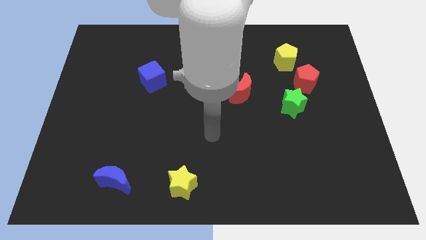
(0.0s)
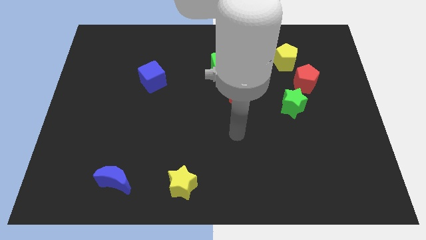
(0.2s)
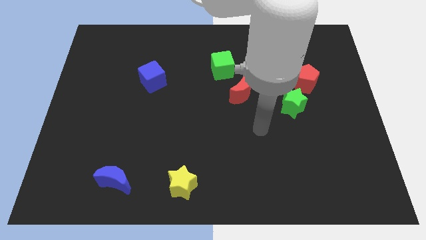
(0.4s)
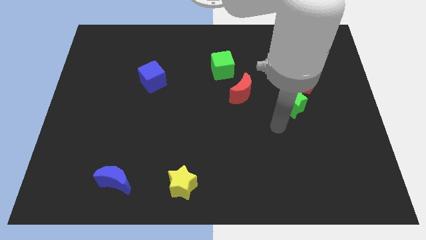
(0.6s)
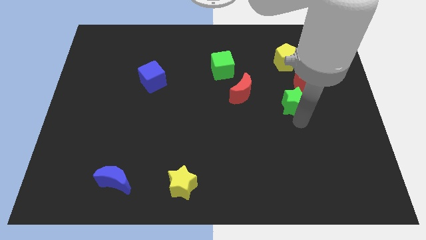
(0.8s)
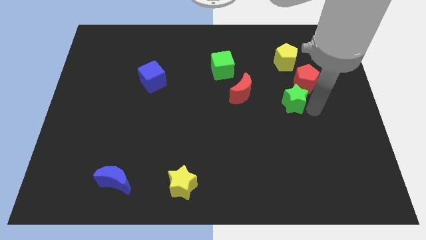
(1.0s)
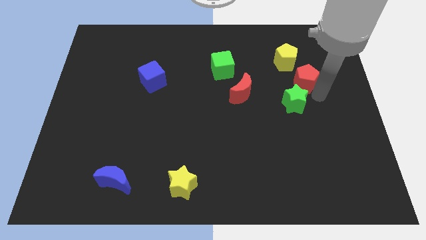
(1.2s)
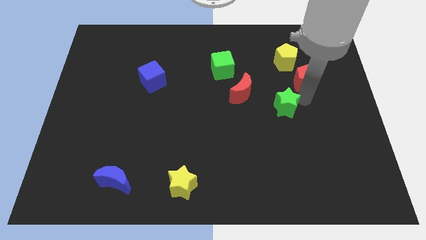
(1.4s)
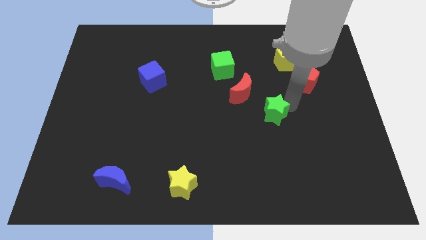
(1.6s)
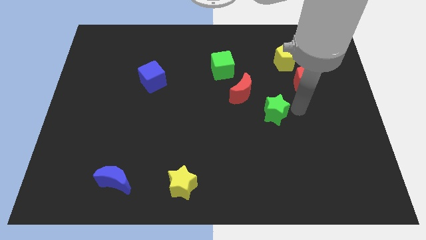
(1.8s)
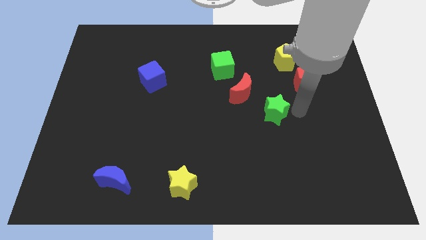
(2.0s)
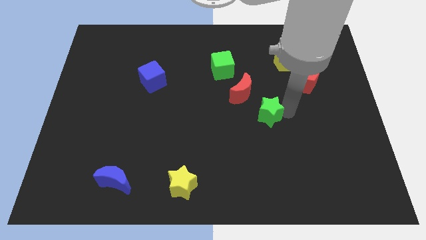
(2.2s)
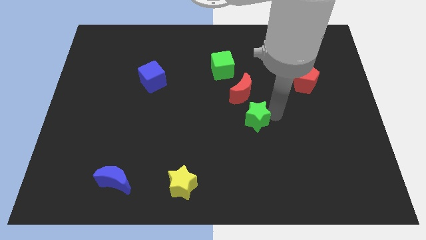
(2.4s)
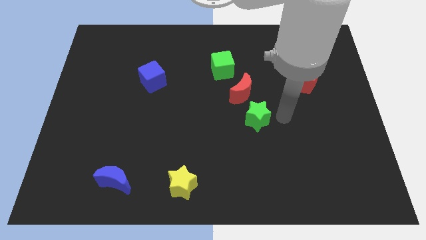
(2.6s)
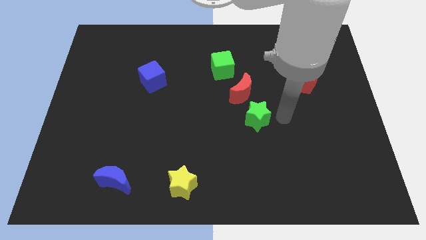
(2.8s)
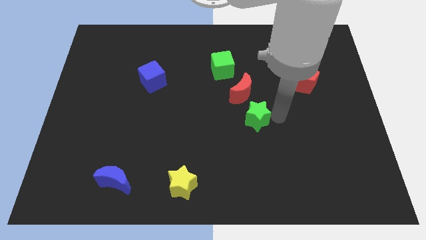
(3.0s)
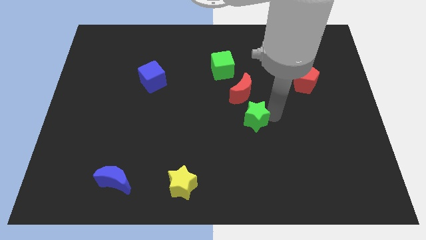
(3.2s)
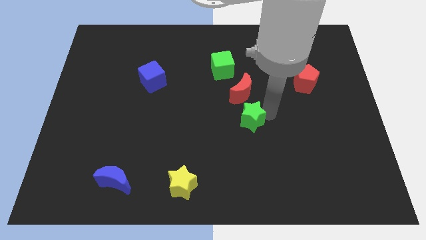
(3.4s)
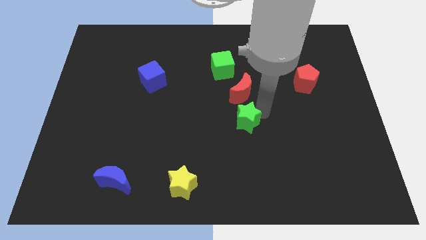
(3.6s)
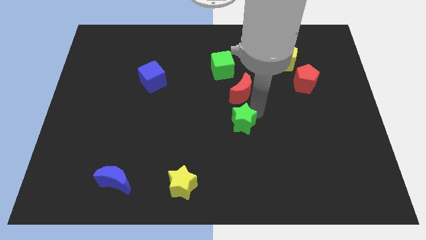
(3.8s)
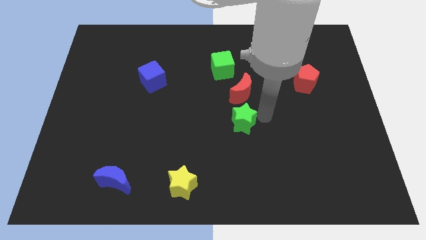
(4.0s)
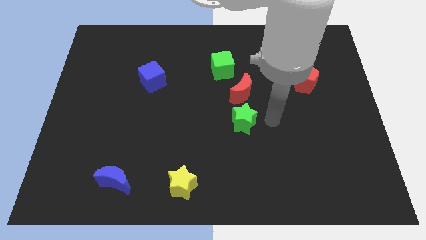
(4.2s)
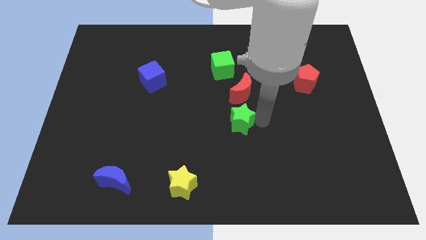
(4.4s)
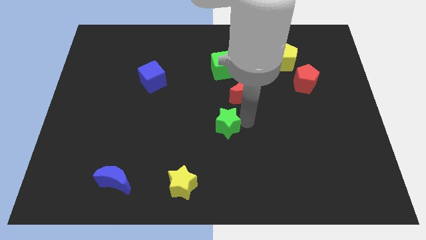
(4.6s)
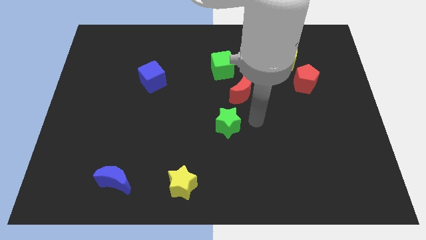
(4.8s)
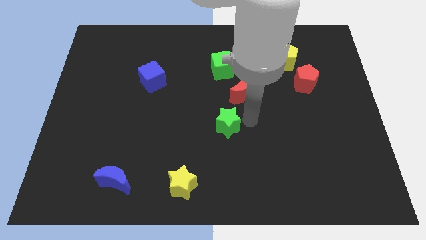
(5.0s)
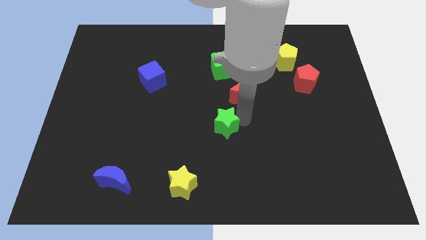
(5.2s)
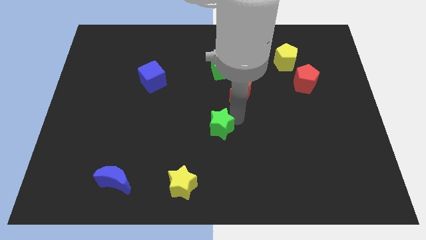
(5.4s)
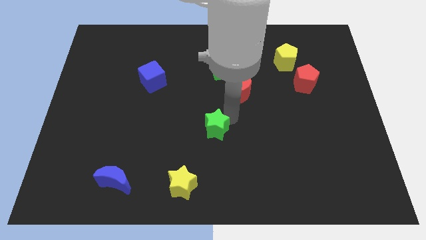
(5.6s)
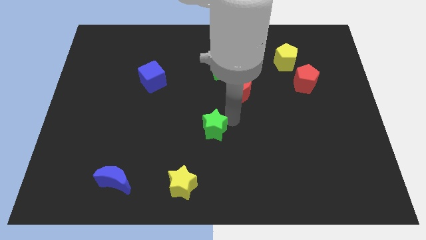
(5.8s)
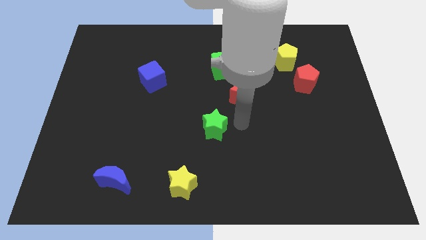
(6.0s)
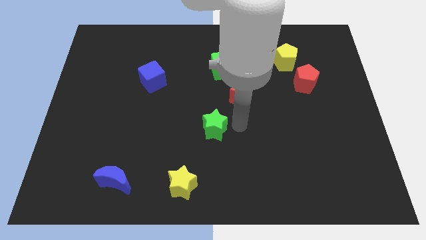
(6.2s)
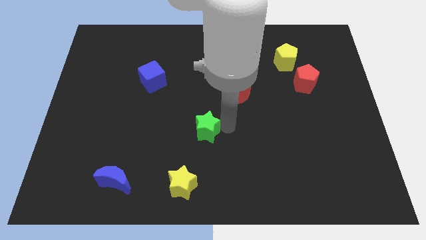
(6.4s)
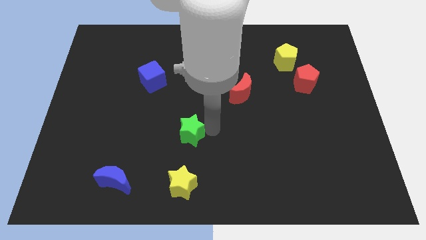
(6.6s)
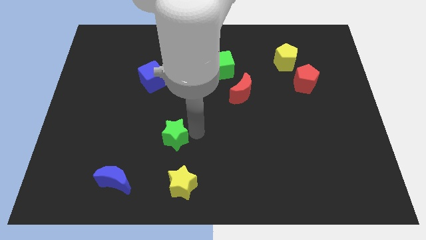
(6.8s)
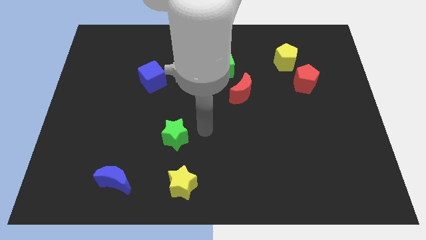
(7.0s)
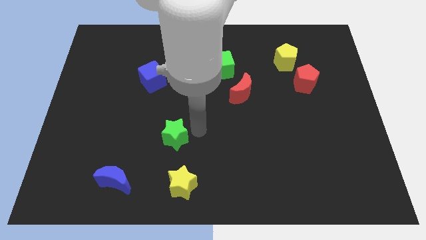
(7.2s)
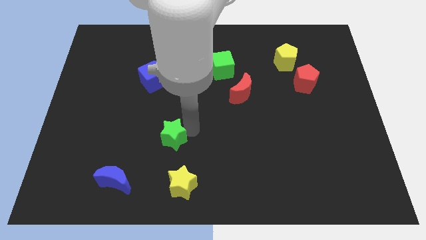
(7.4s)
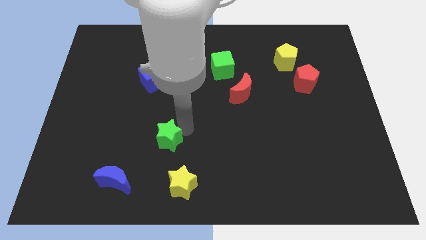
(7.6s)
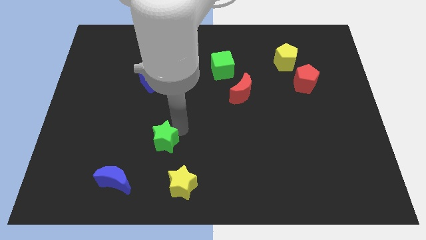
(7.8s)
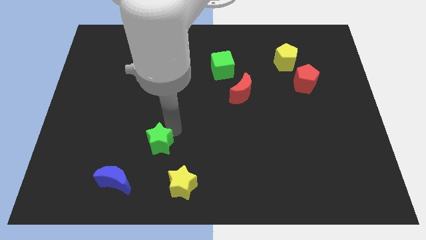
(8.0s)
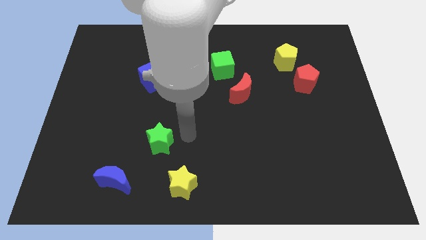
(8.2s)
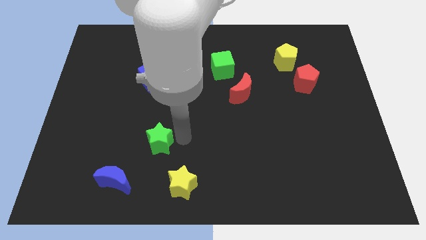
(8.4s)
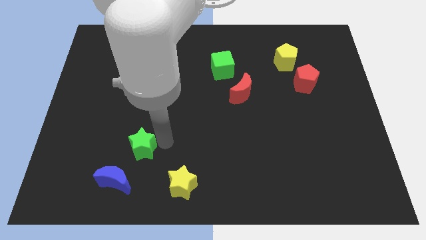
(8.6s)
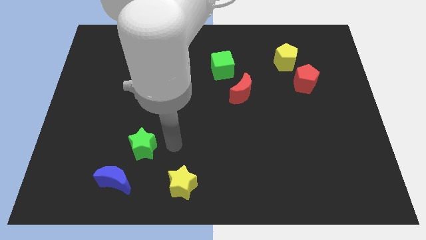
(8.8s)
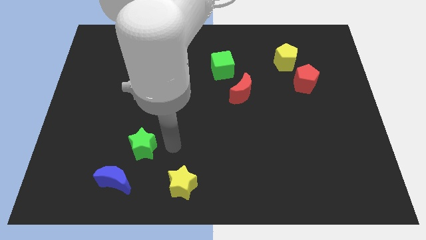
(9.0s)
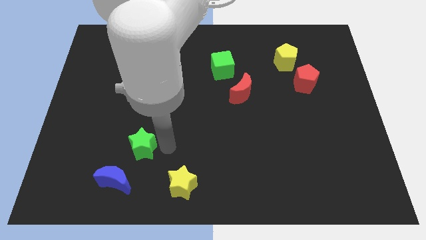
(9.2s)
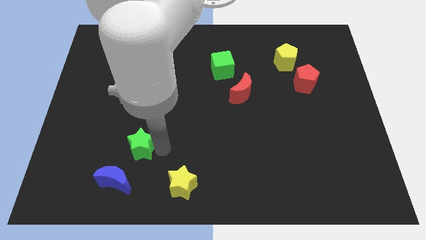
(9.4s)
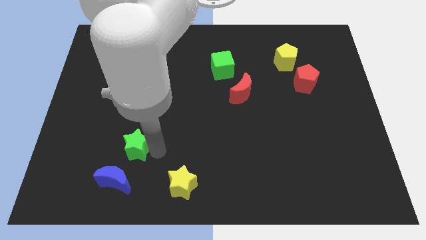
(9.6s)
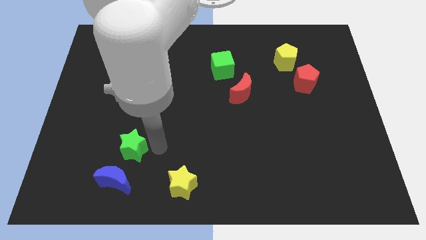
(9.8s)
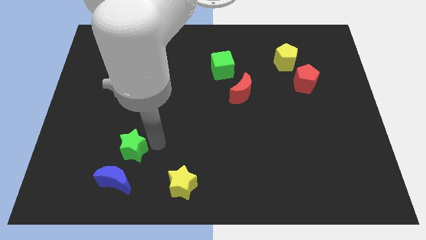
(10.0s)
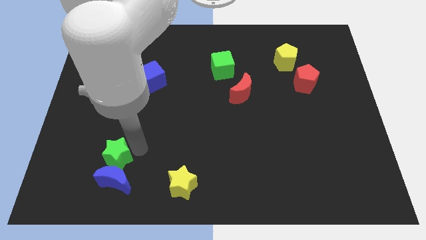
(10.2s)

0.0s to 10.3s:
move the green star to the top left side of the blue moon

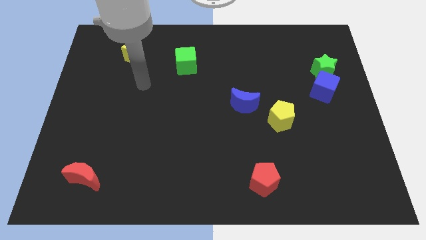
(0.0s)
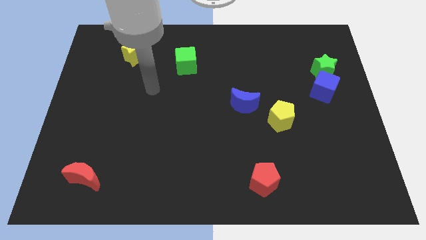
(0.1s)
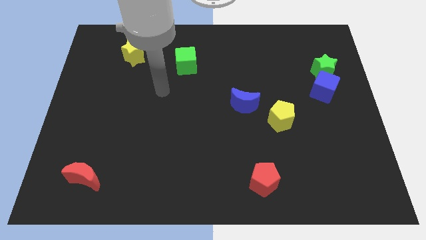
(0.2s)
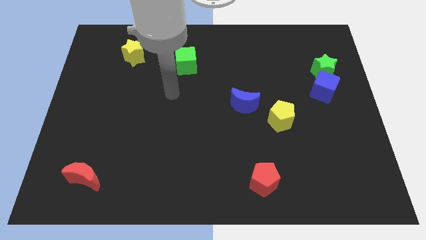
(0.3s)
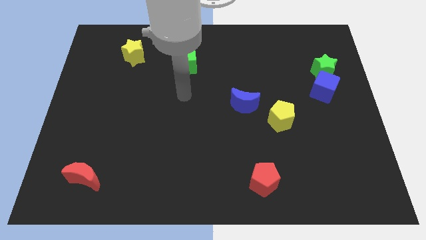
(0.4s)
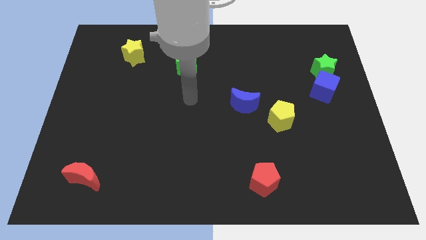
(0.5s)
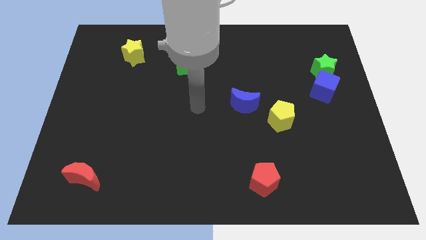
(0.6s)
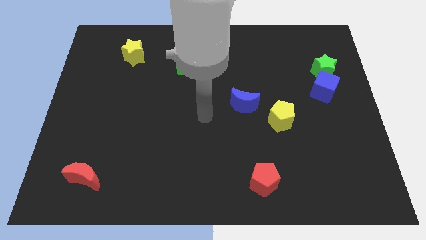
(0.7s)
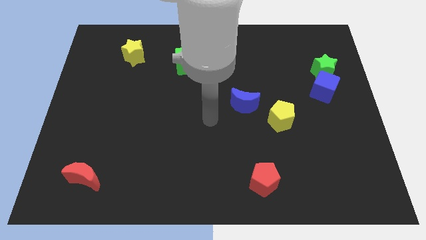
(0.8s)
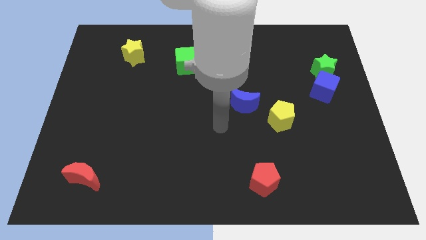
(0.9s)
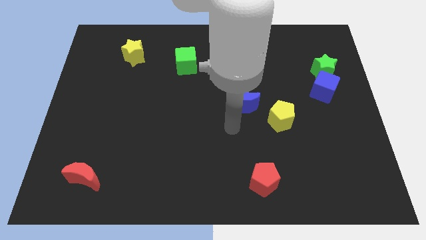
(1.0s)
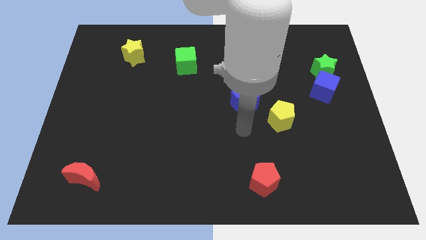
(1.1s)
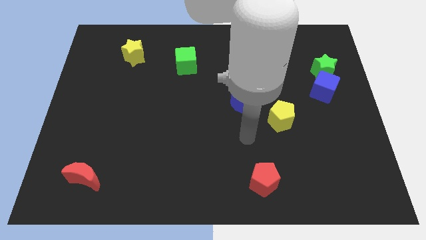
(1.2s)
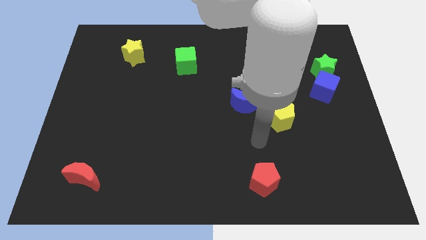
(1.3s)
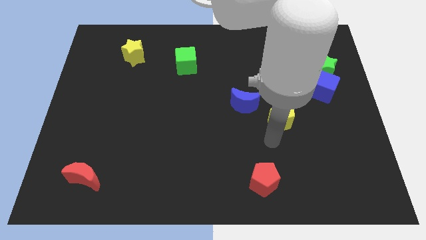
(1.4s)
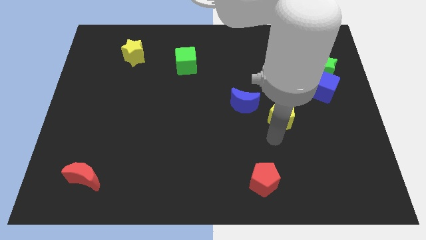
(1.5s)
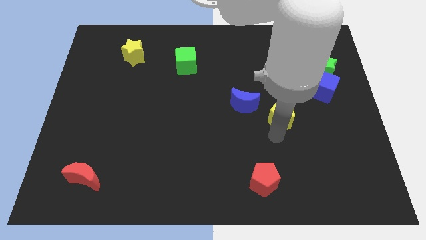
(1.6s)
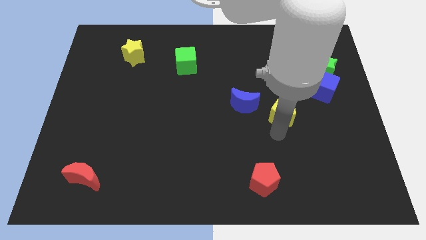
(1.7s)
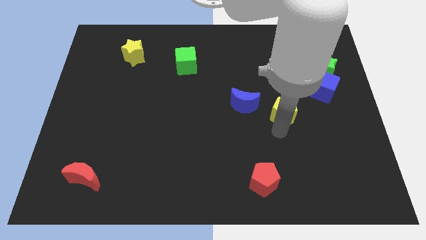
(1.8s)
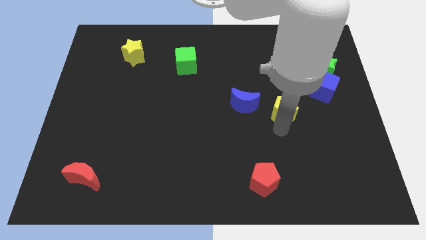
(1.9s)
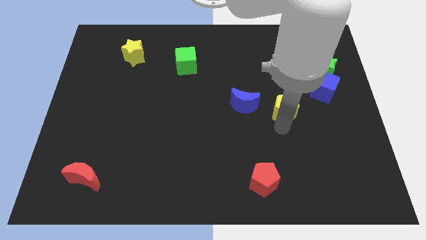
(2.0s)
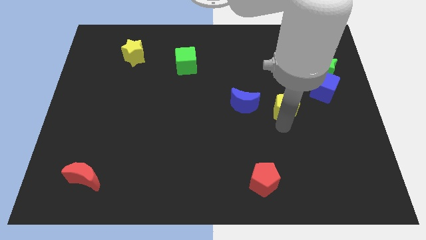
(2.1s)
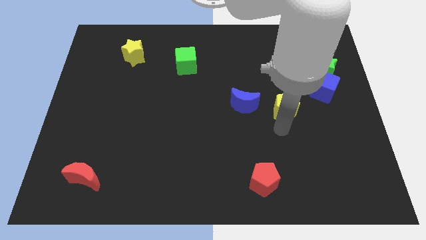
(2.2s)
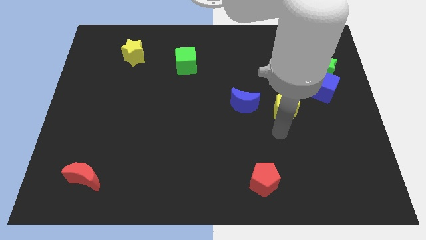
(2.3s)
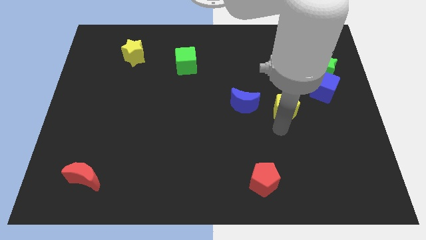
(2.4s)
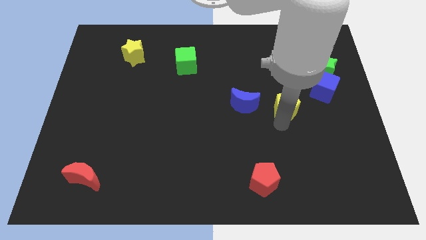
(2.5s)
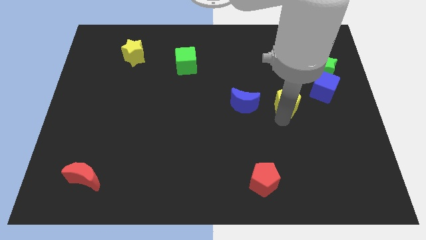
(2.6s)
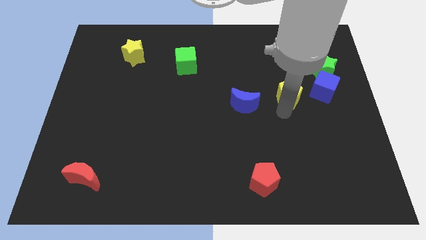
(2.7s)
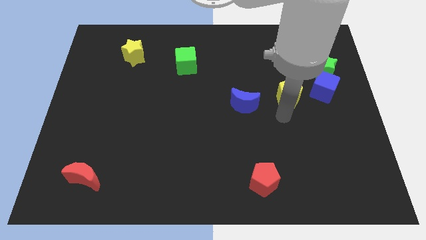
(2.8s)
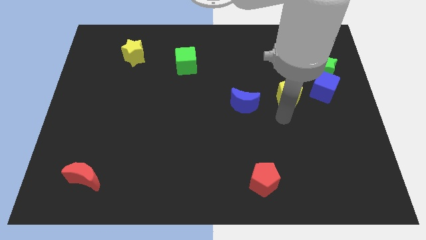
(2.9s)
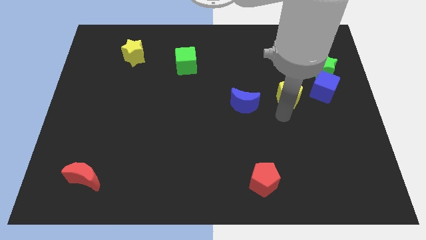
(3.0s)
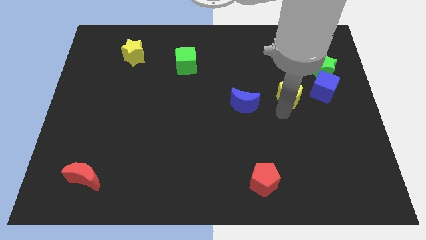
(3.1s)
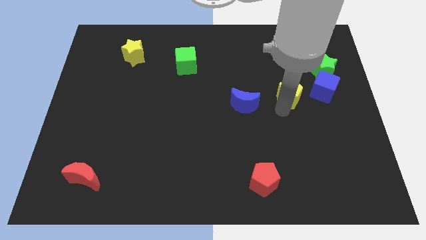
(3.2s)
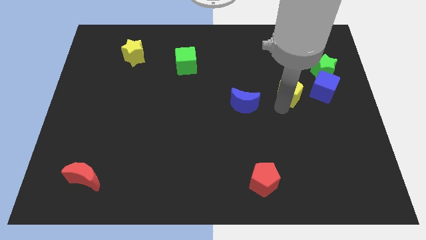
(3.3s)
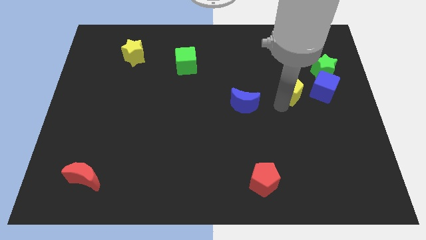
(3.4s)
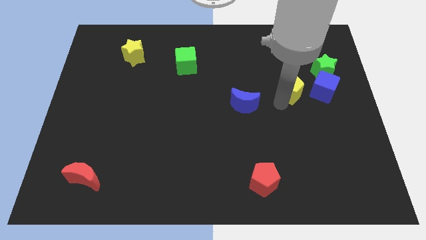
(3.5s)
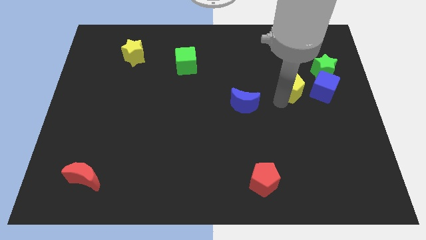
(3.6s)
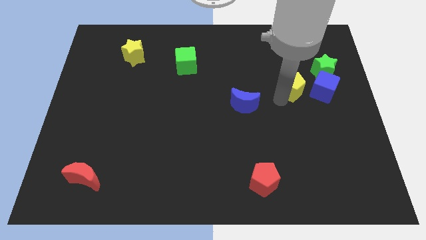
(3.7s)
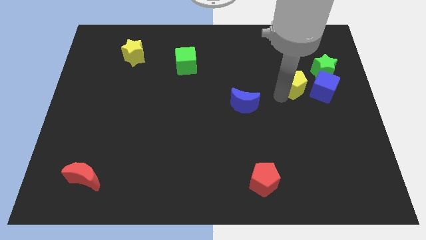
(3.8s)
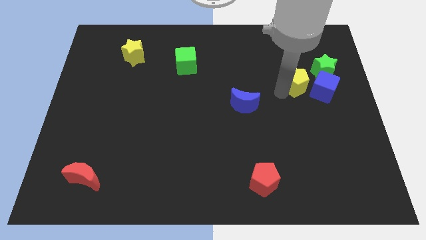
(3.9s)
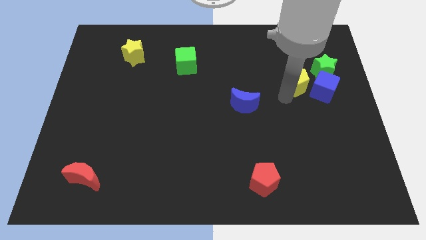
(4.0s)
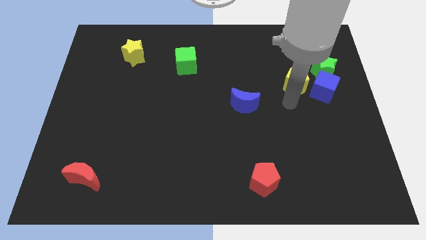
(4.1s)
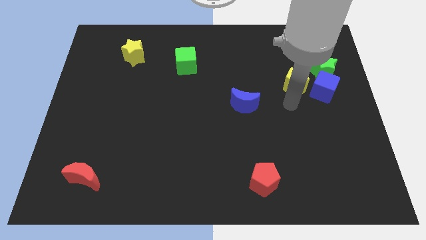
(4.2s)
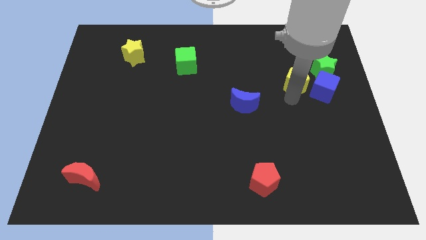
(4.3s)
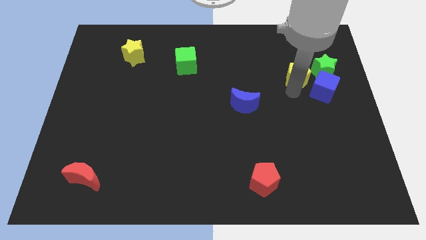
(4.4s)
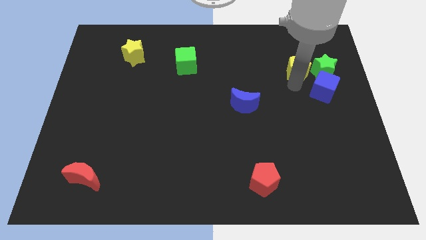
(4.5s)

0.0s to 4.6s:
move the yellow pentagon diagonally up and to the left of the green star
